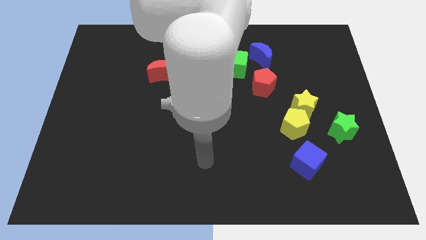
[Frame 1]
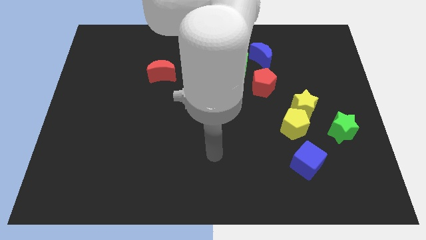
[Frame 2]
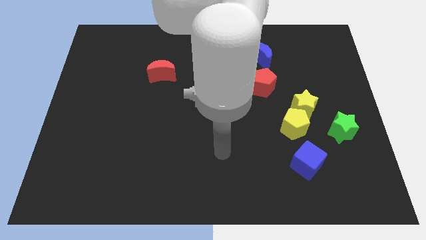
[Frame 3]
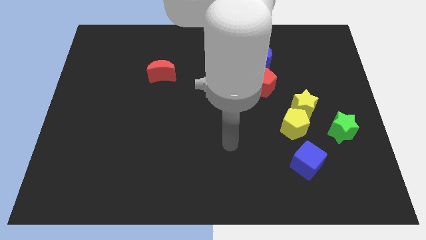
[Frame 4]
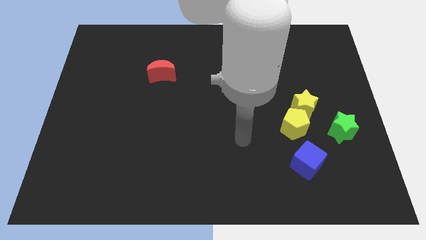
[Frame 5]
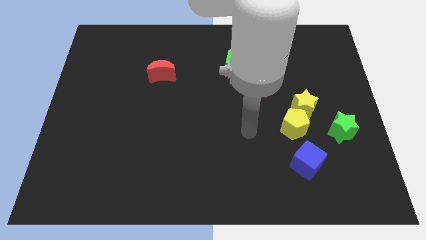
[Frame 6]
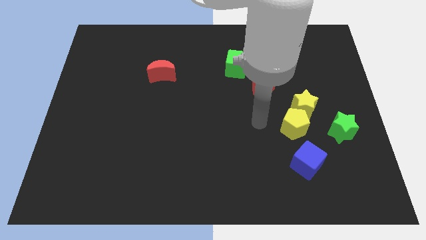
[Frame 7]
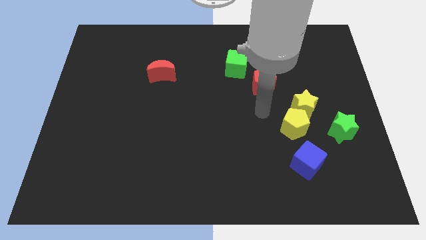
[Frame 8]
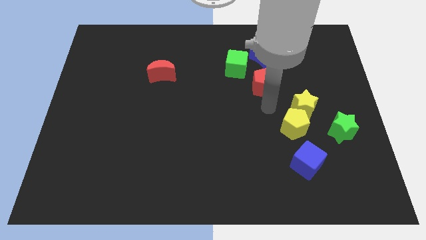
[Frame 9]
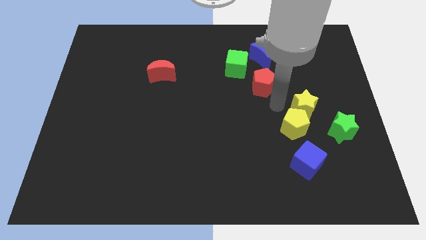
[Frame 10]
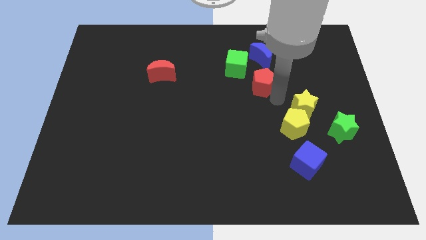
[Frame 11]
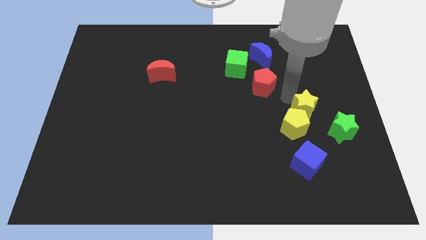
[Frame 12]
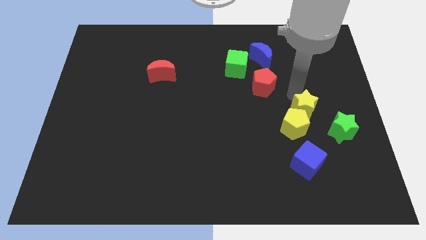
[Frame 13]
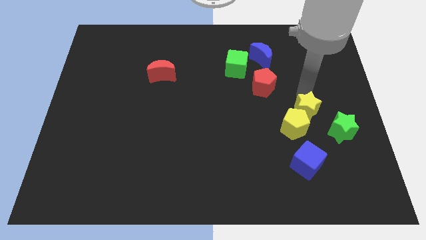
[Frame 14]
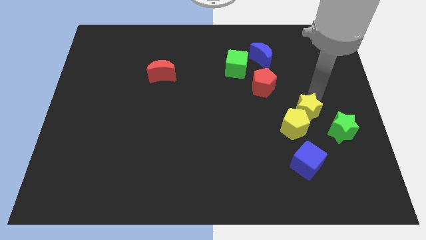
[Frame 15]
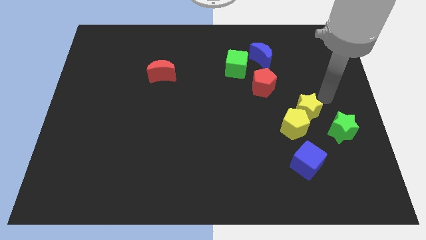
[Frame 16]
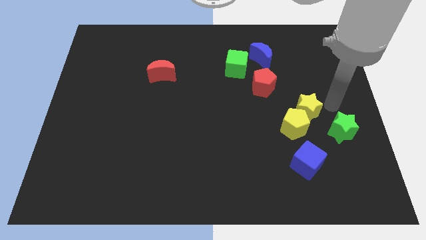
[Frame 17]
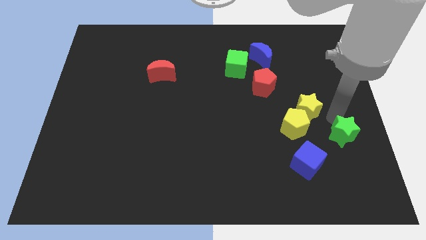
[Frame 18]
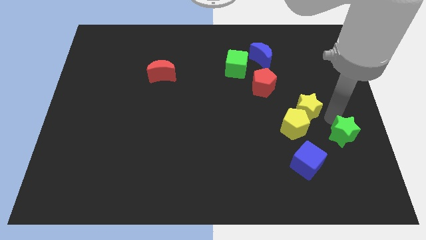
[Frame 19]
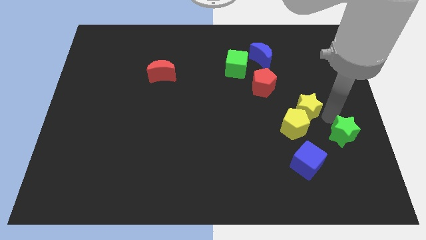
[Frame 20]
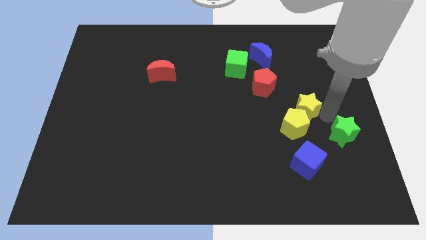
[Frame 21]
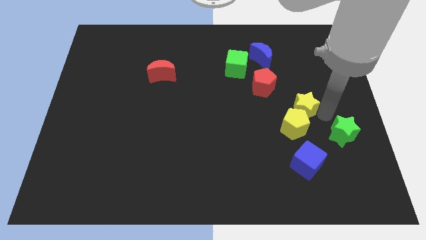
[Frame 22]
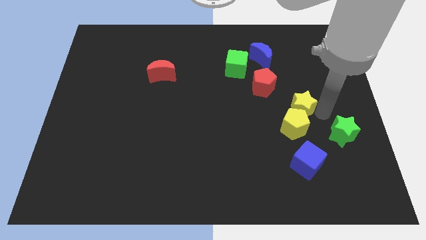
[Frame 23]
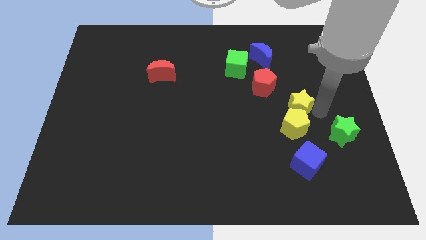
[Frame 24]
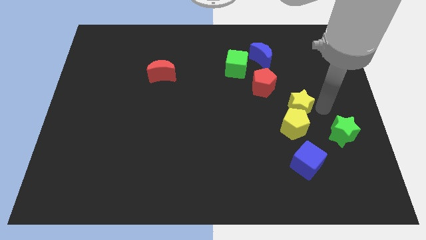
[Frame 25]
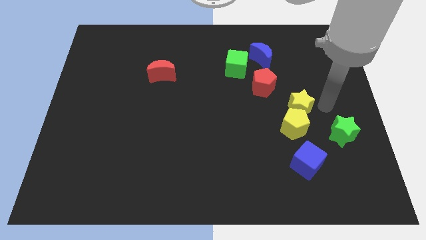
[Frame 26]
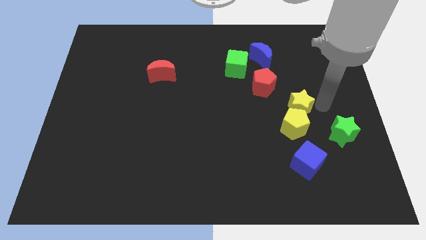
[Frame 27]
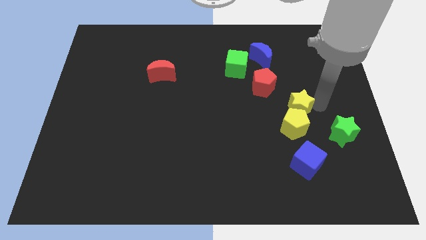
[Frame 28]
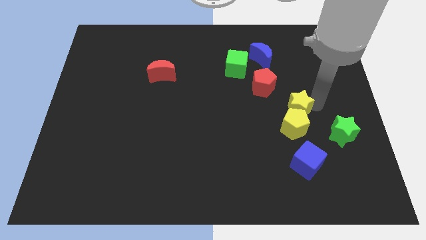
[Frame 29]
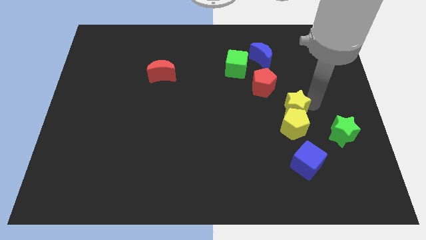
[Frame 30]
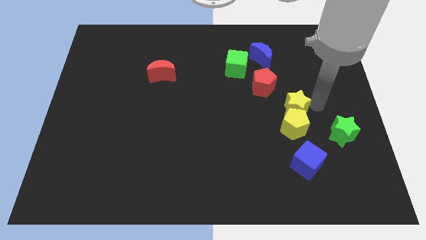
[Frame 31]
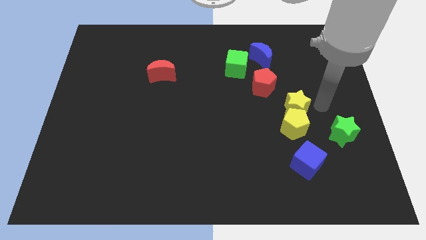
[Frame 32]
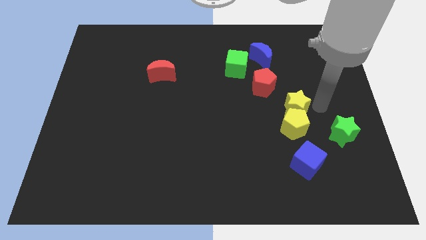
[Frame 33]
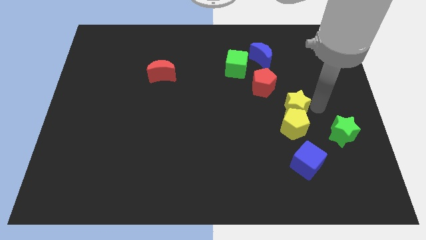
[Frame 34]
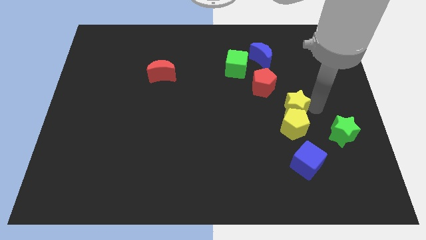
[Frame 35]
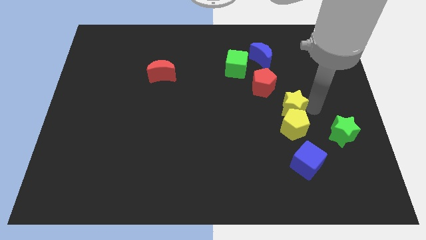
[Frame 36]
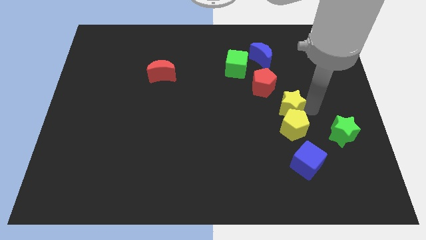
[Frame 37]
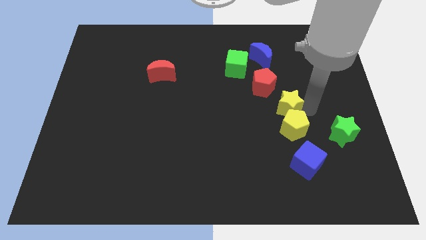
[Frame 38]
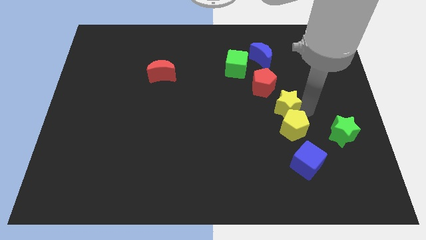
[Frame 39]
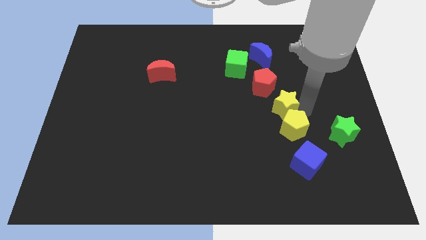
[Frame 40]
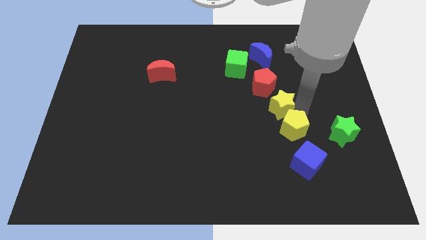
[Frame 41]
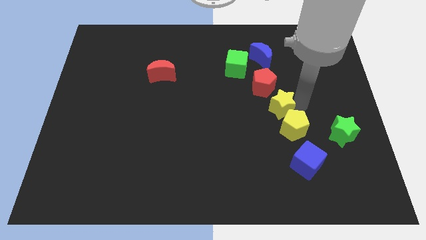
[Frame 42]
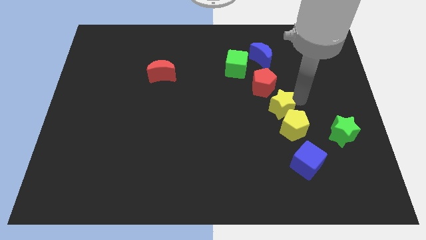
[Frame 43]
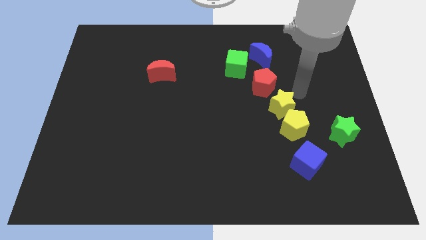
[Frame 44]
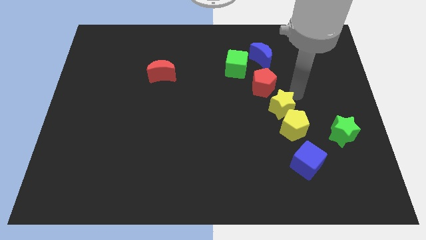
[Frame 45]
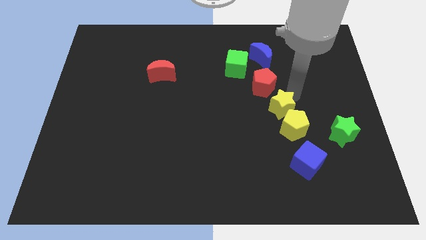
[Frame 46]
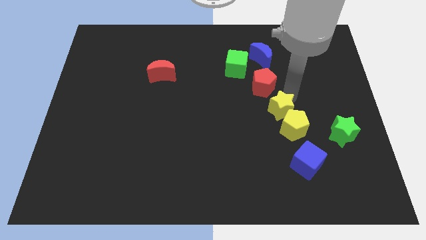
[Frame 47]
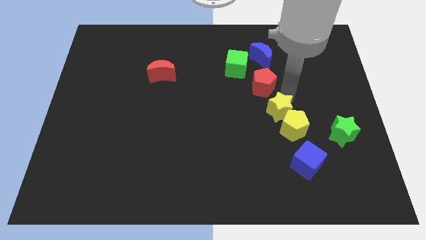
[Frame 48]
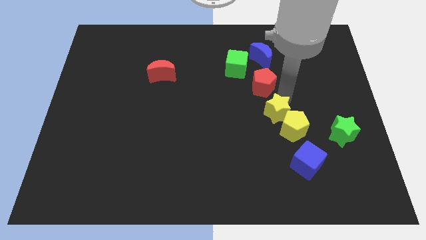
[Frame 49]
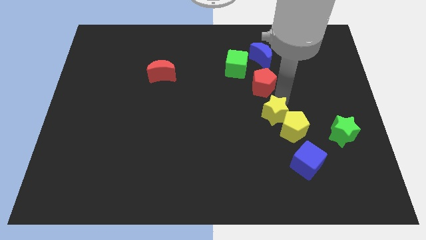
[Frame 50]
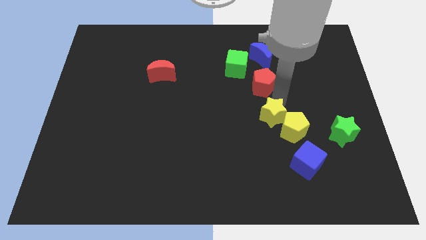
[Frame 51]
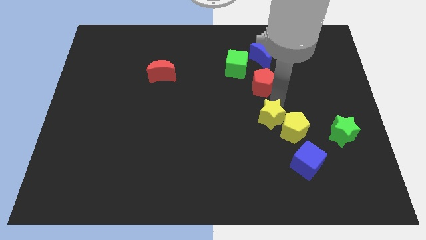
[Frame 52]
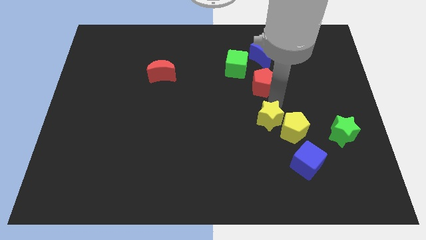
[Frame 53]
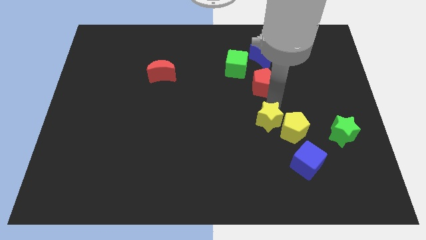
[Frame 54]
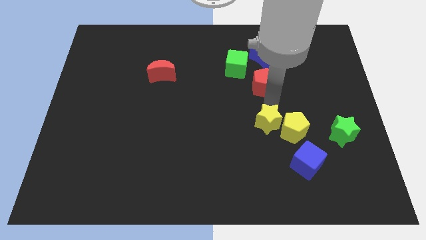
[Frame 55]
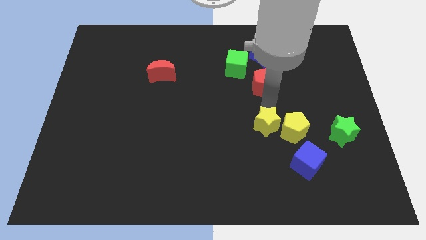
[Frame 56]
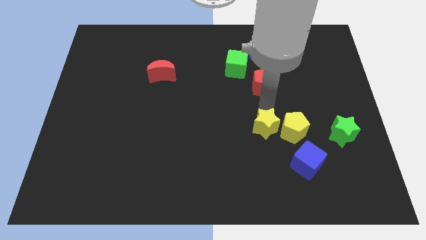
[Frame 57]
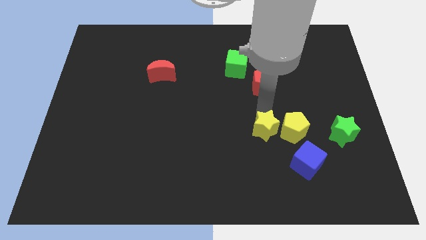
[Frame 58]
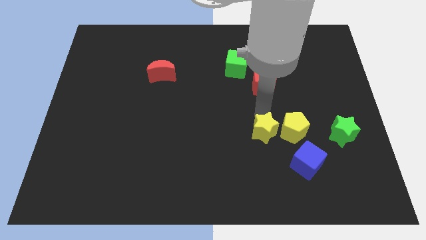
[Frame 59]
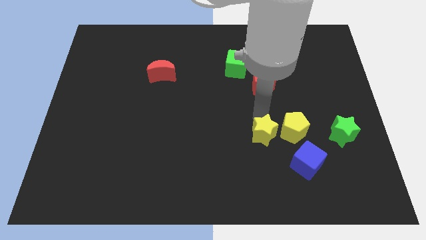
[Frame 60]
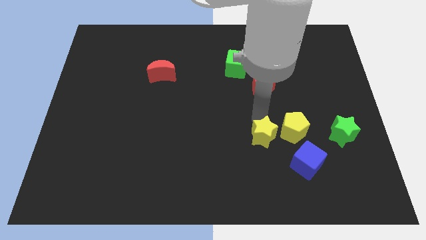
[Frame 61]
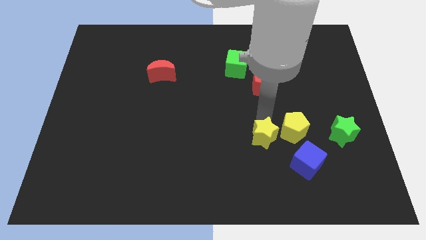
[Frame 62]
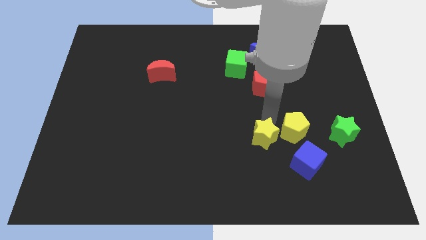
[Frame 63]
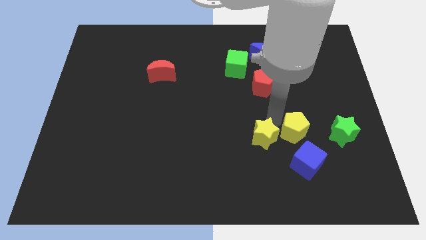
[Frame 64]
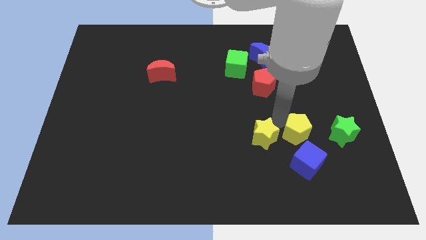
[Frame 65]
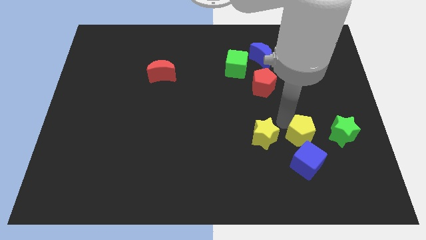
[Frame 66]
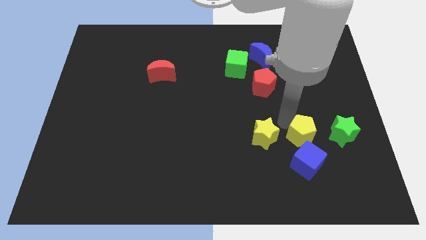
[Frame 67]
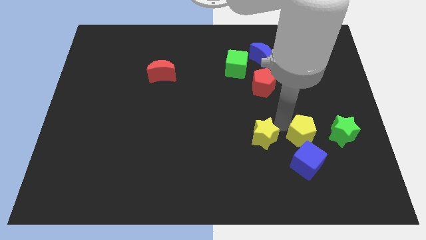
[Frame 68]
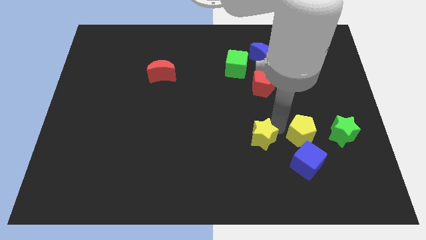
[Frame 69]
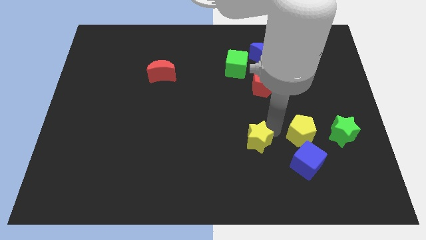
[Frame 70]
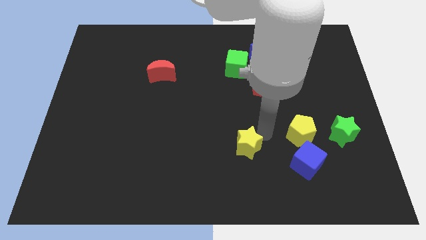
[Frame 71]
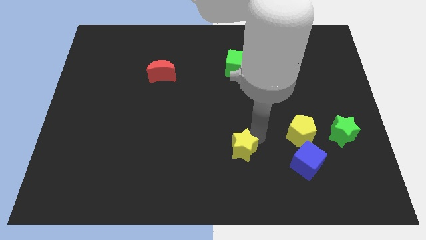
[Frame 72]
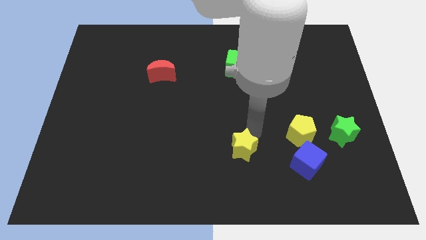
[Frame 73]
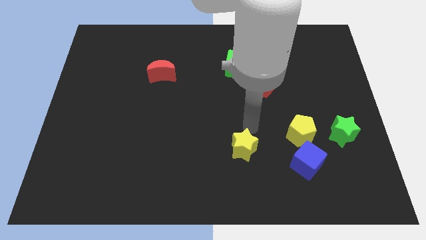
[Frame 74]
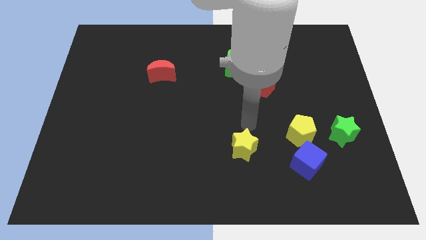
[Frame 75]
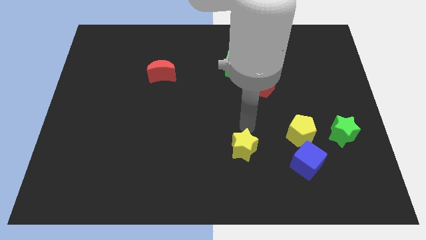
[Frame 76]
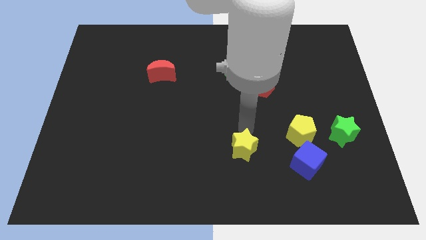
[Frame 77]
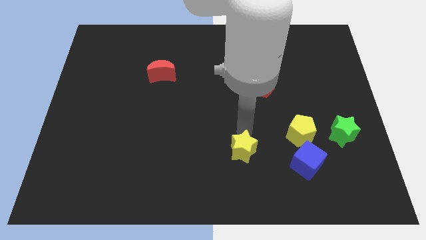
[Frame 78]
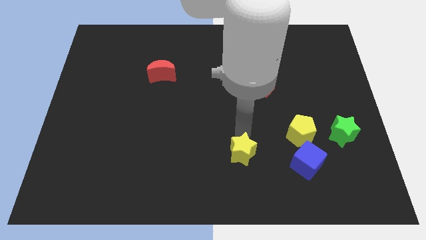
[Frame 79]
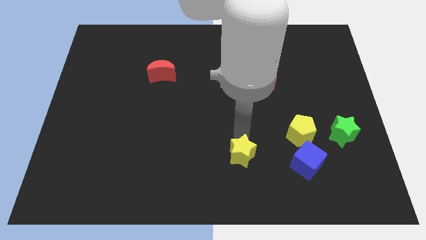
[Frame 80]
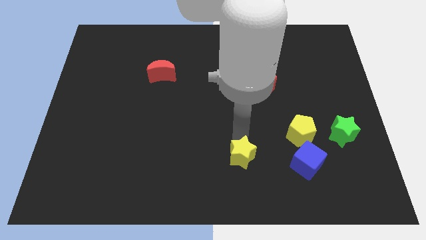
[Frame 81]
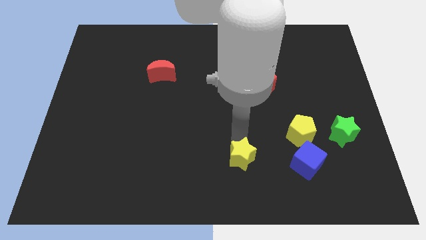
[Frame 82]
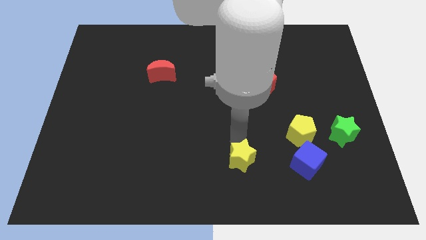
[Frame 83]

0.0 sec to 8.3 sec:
put the yellow star to the bottom side
